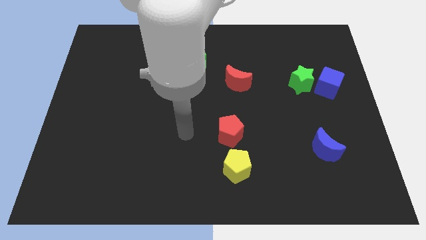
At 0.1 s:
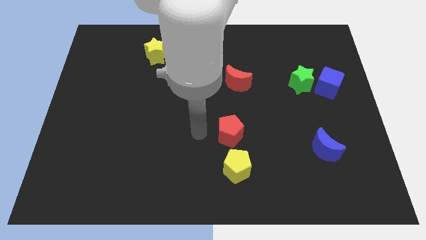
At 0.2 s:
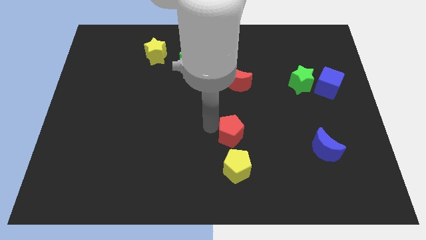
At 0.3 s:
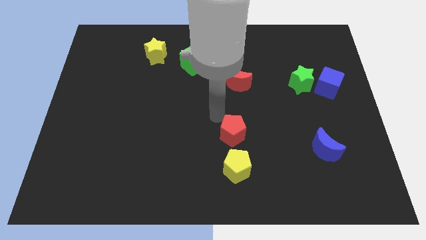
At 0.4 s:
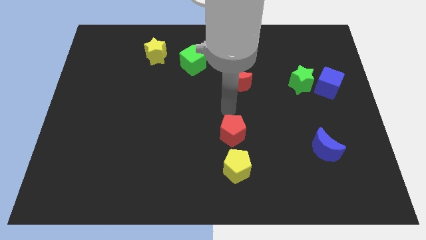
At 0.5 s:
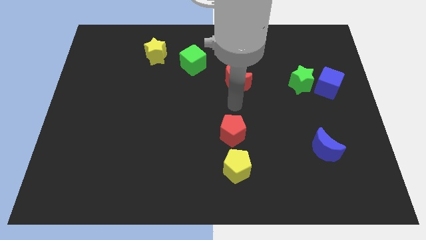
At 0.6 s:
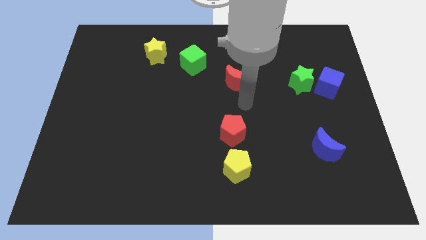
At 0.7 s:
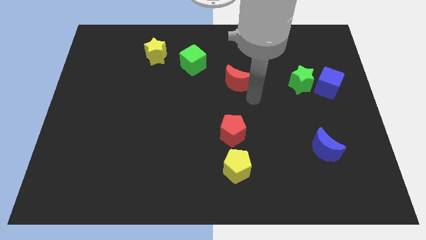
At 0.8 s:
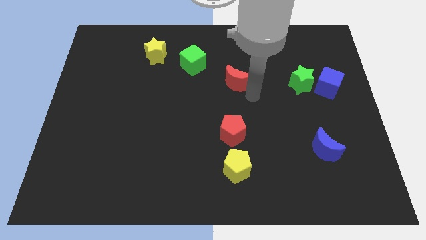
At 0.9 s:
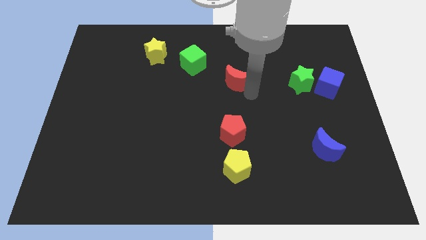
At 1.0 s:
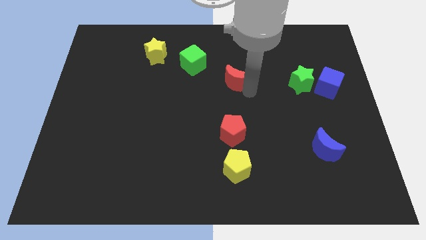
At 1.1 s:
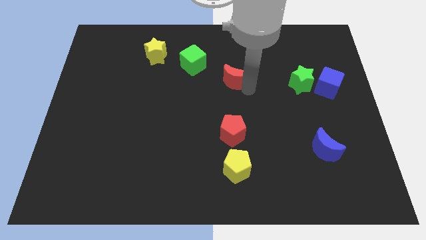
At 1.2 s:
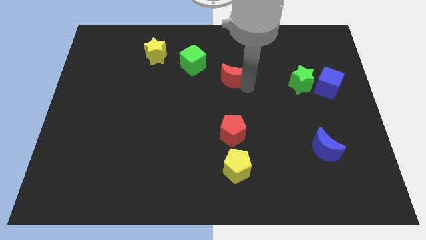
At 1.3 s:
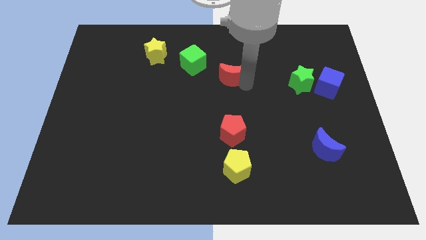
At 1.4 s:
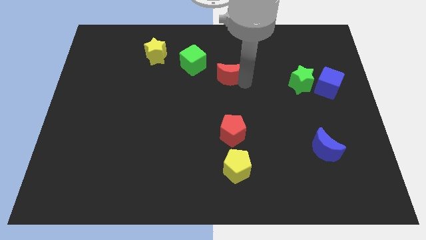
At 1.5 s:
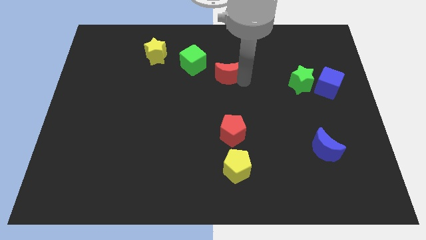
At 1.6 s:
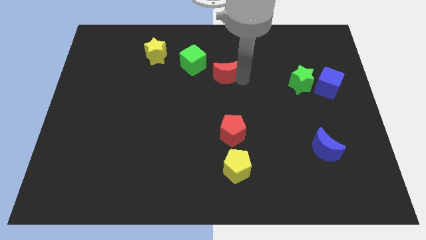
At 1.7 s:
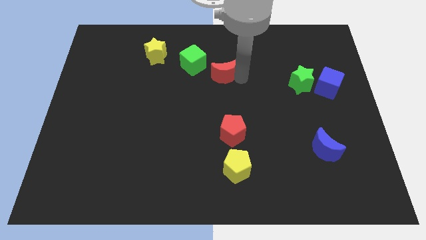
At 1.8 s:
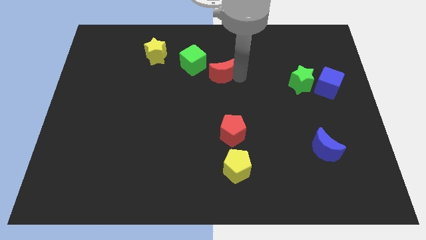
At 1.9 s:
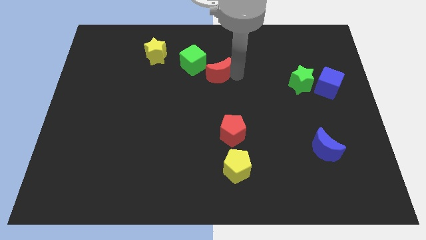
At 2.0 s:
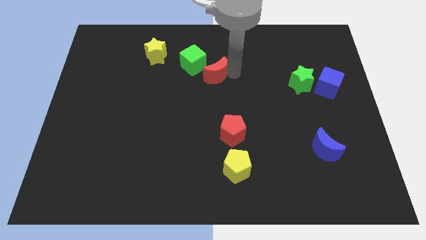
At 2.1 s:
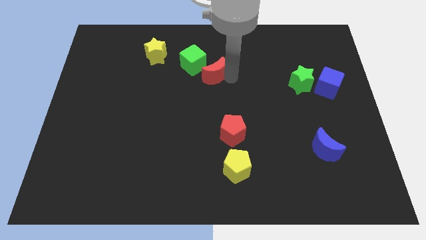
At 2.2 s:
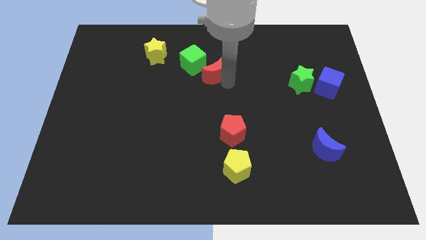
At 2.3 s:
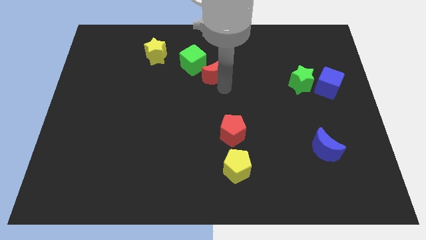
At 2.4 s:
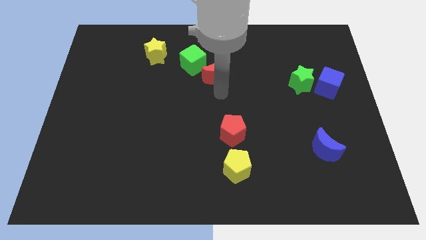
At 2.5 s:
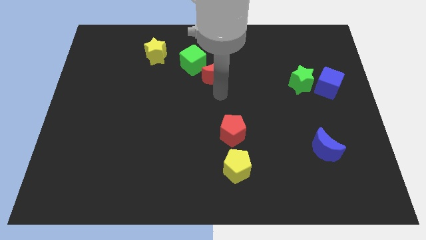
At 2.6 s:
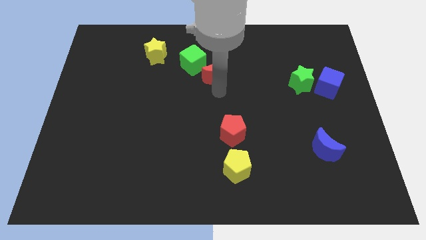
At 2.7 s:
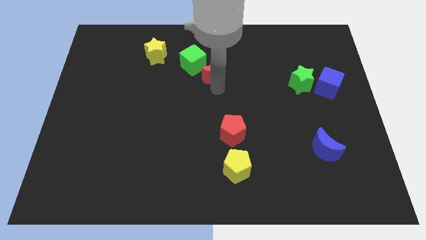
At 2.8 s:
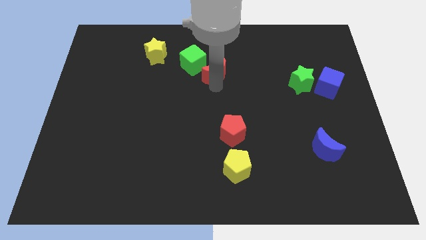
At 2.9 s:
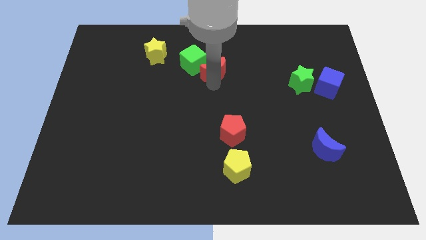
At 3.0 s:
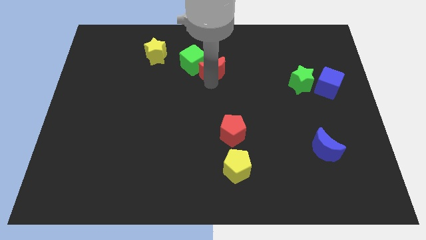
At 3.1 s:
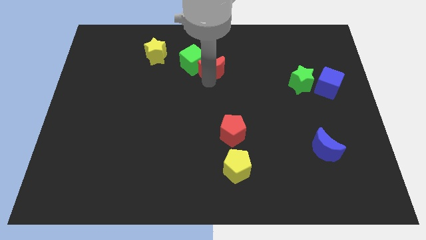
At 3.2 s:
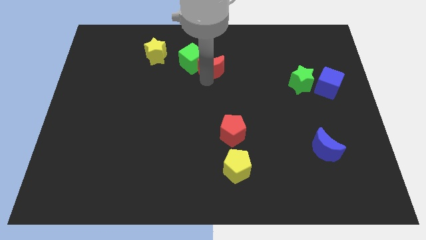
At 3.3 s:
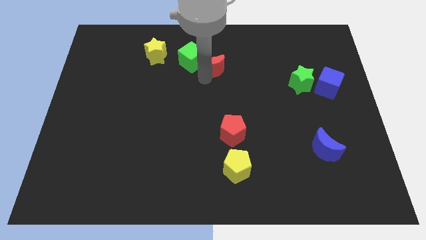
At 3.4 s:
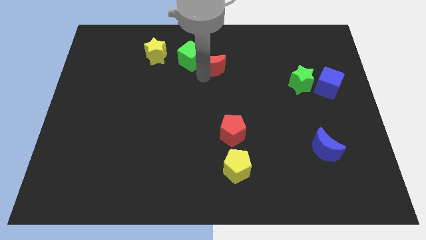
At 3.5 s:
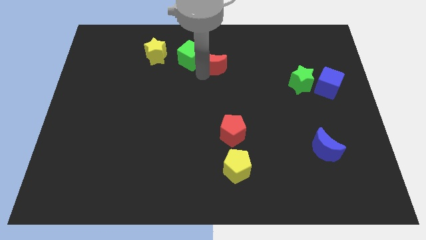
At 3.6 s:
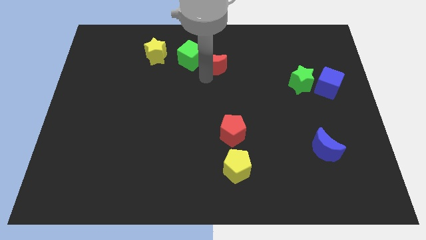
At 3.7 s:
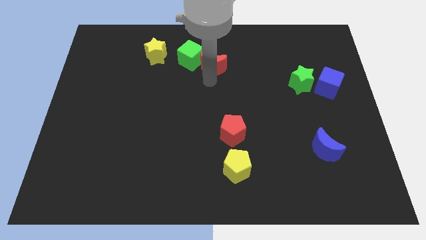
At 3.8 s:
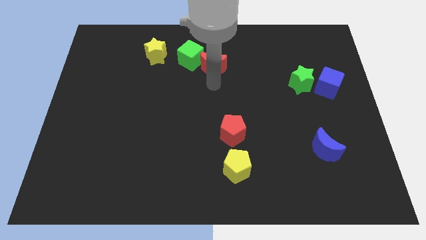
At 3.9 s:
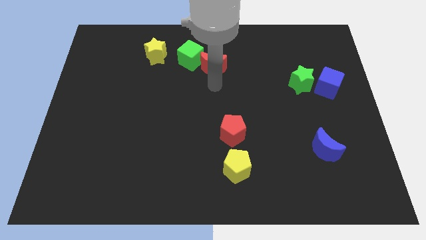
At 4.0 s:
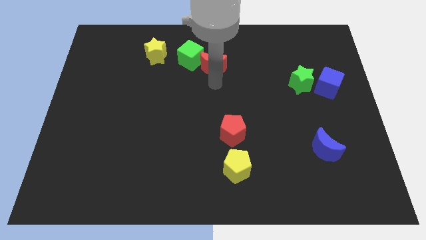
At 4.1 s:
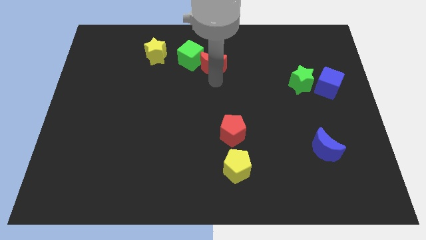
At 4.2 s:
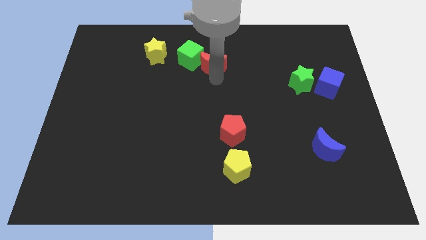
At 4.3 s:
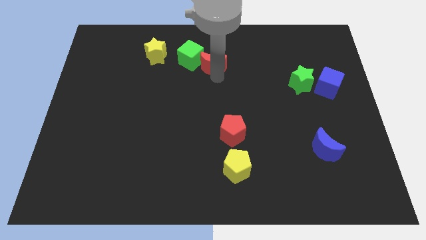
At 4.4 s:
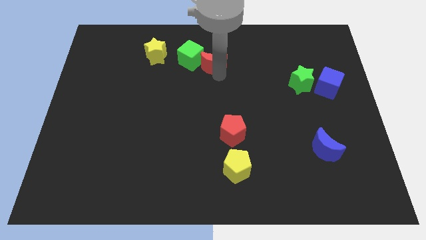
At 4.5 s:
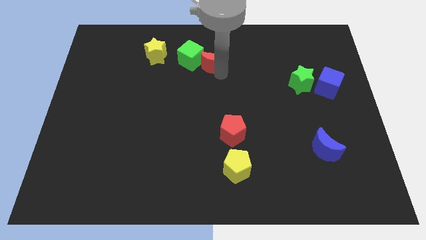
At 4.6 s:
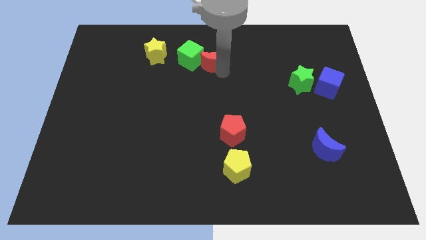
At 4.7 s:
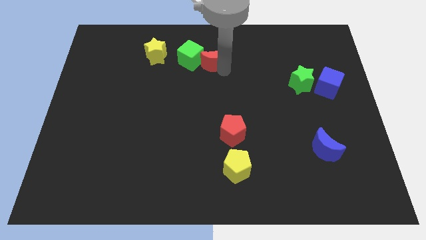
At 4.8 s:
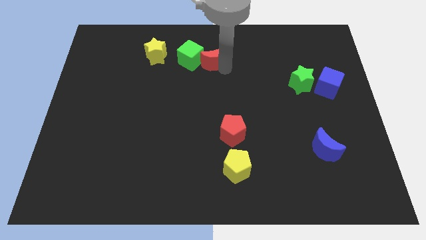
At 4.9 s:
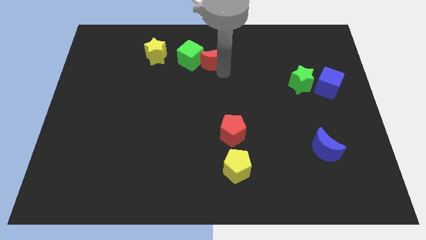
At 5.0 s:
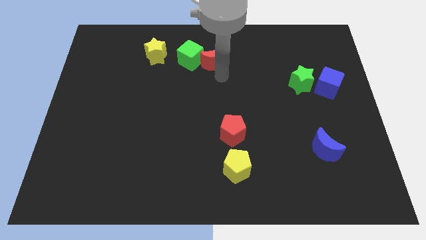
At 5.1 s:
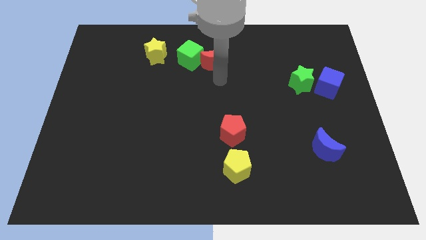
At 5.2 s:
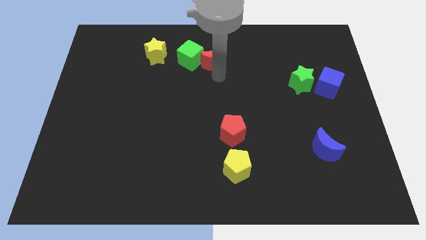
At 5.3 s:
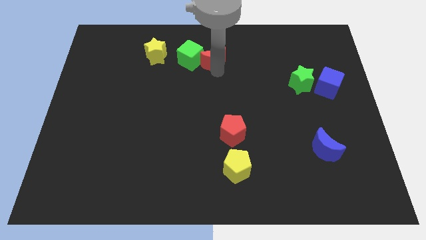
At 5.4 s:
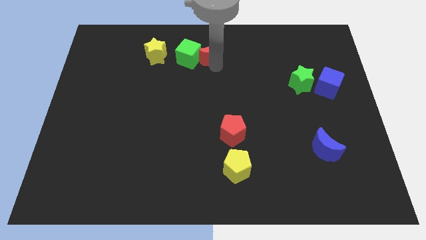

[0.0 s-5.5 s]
move the red moon to the top side
